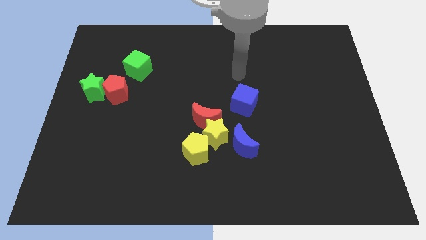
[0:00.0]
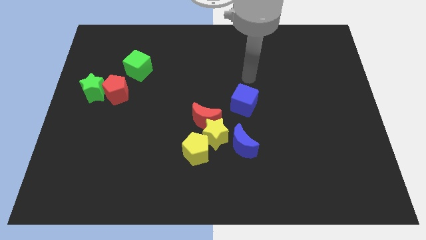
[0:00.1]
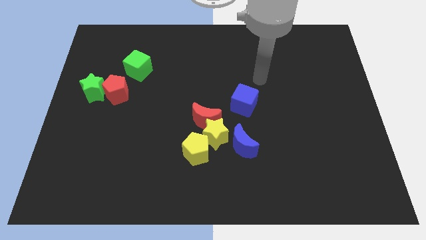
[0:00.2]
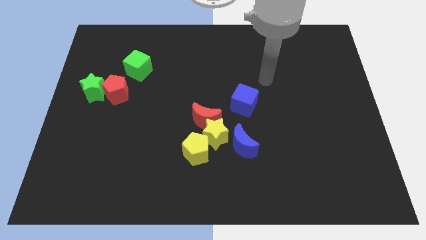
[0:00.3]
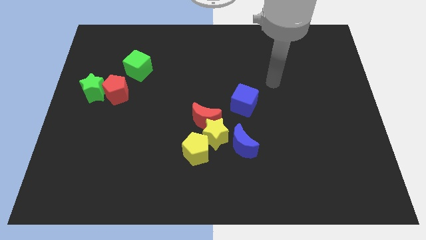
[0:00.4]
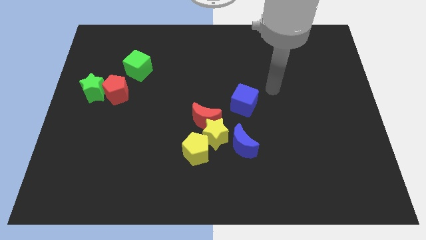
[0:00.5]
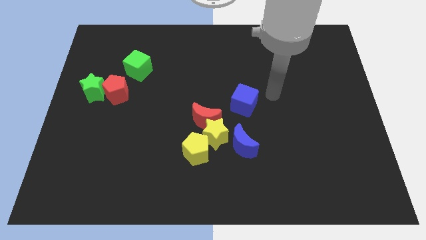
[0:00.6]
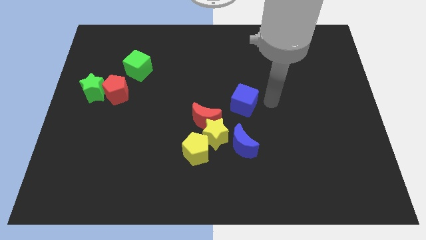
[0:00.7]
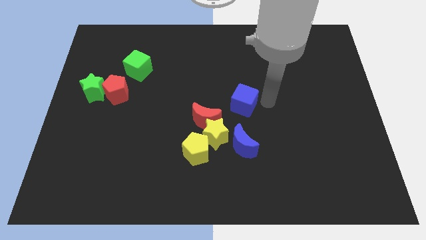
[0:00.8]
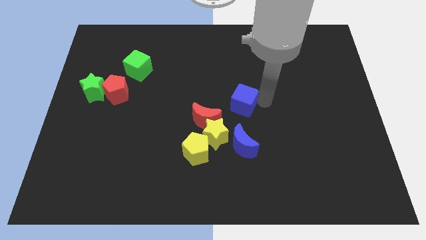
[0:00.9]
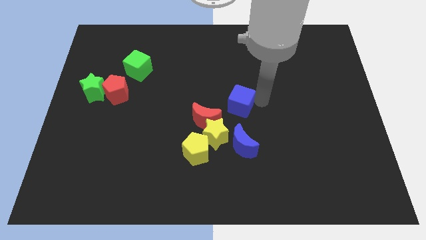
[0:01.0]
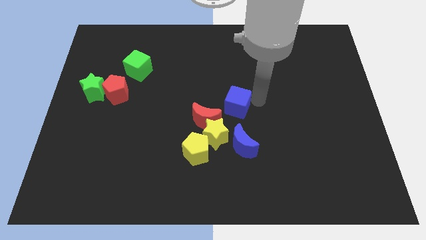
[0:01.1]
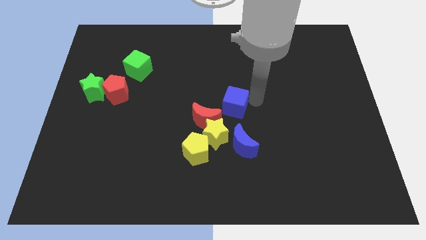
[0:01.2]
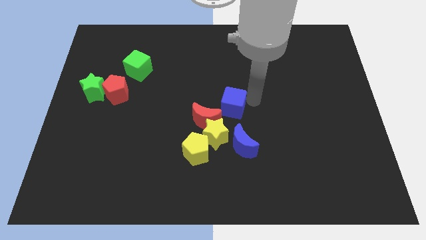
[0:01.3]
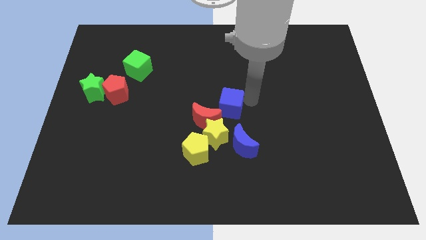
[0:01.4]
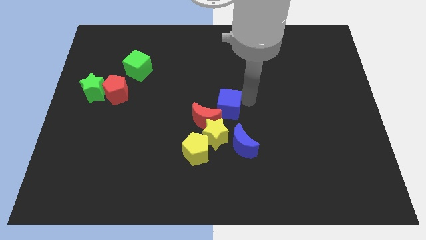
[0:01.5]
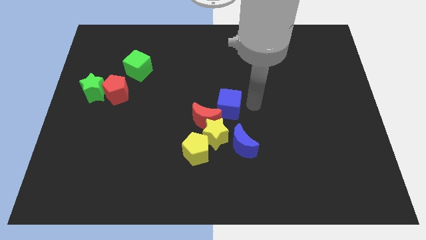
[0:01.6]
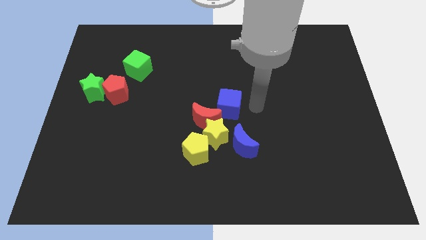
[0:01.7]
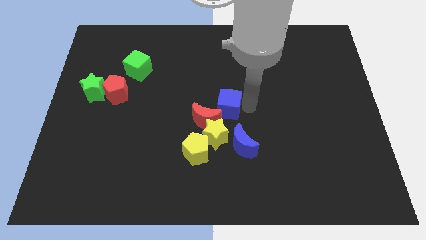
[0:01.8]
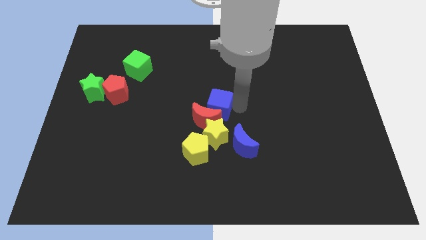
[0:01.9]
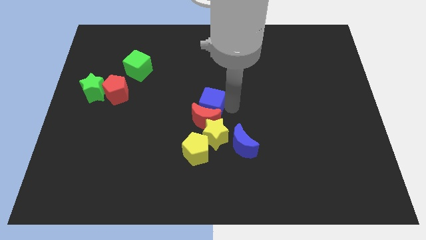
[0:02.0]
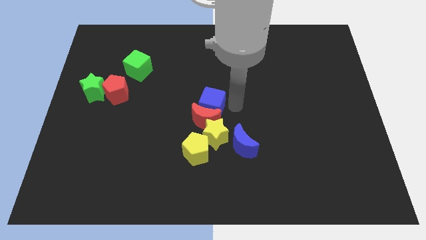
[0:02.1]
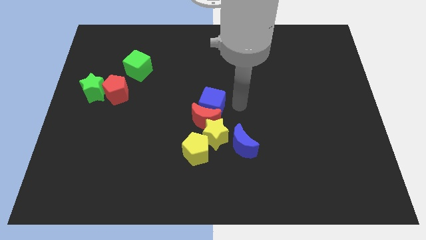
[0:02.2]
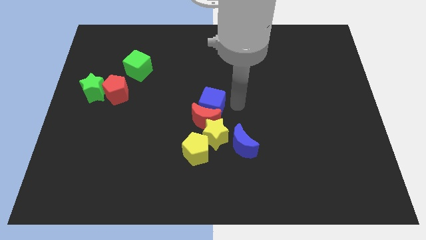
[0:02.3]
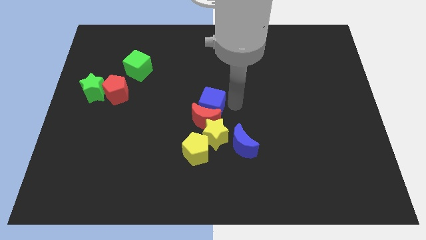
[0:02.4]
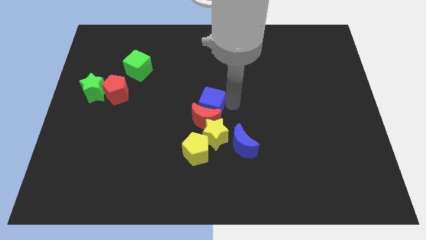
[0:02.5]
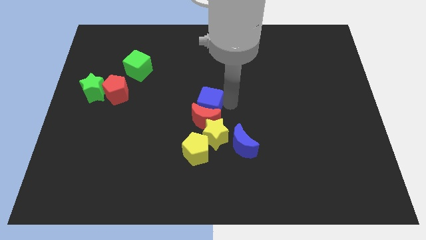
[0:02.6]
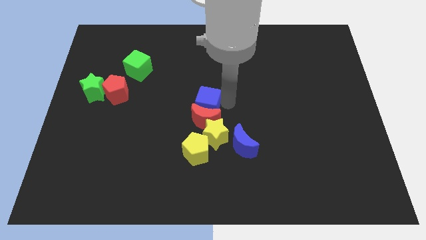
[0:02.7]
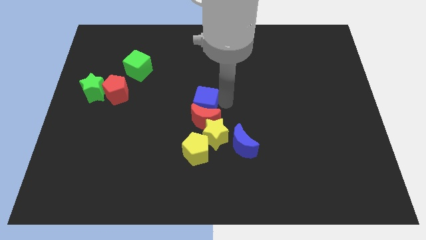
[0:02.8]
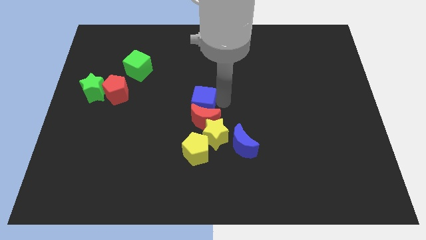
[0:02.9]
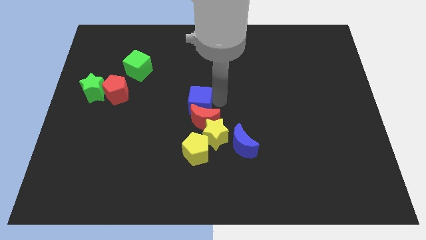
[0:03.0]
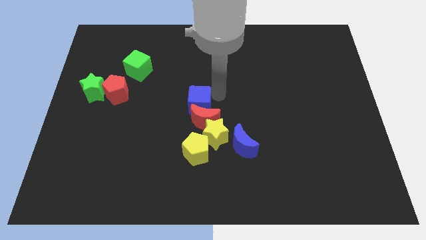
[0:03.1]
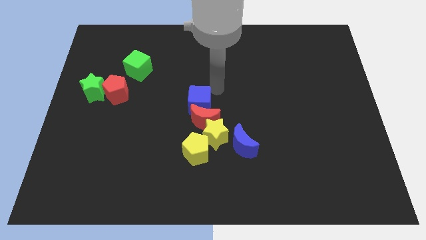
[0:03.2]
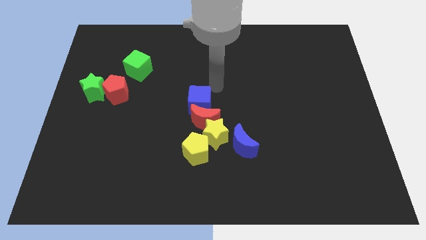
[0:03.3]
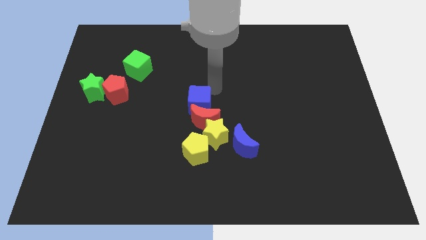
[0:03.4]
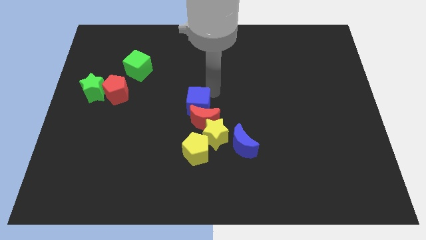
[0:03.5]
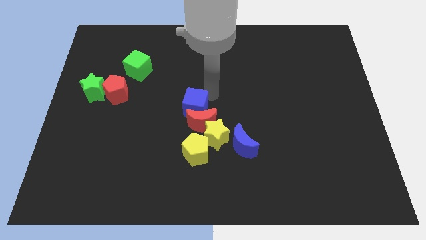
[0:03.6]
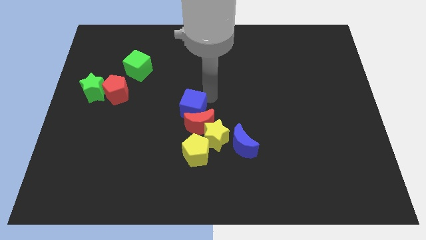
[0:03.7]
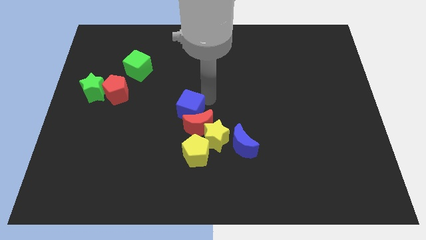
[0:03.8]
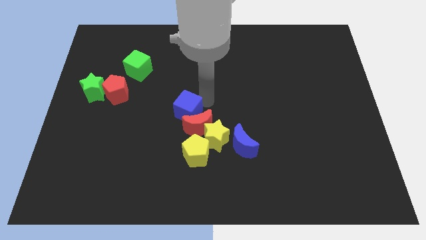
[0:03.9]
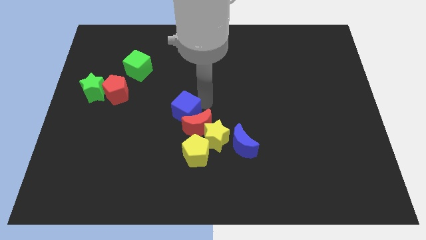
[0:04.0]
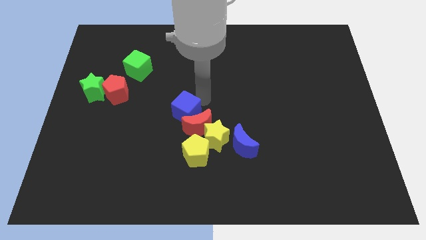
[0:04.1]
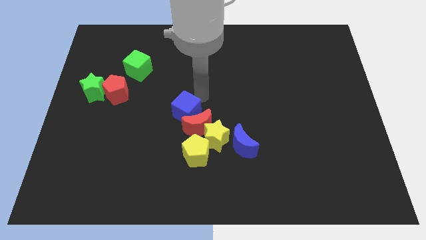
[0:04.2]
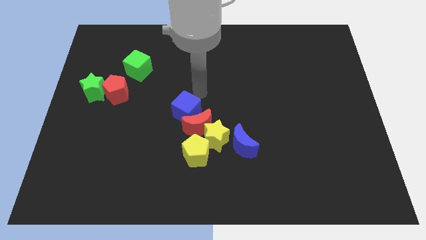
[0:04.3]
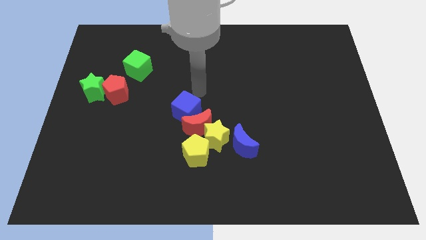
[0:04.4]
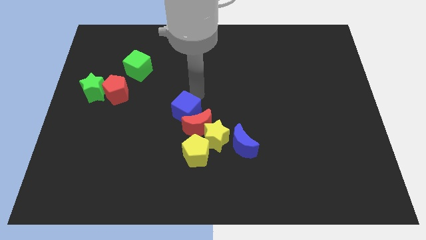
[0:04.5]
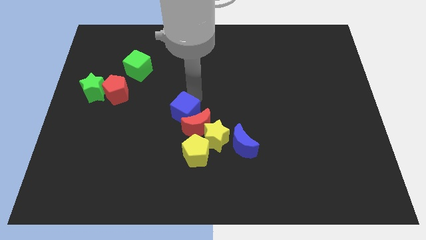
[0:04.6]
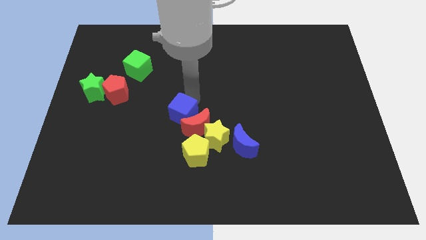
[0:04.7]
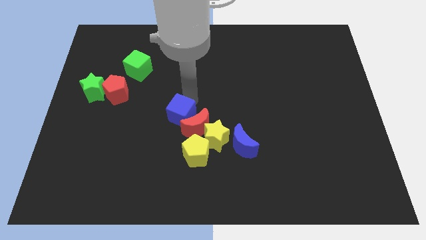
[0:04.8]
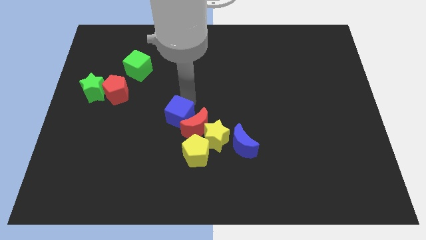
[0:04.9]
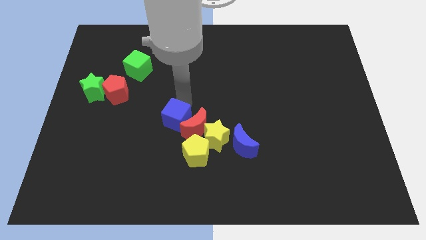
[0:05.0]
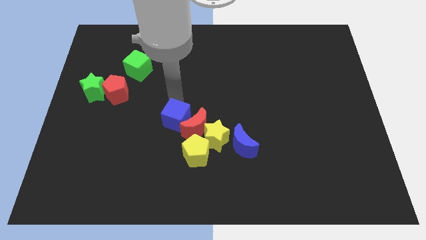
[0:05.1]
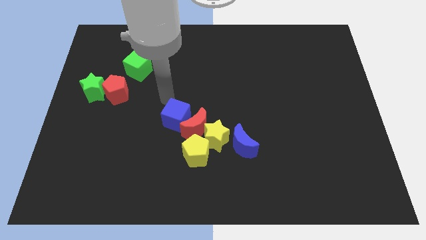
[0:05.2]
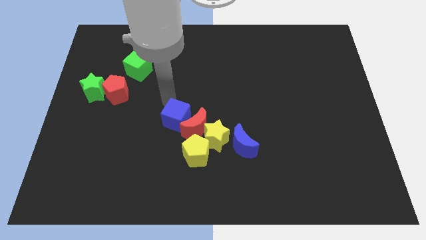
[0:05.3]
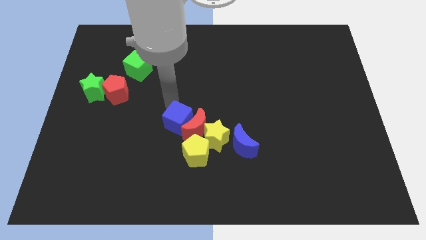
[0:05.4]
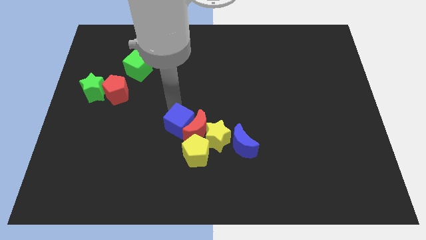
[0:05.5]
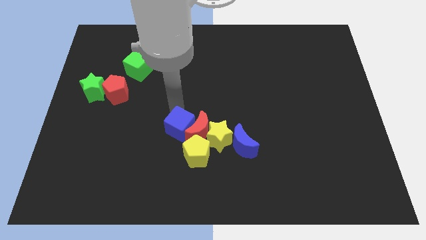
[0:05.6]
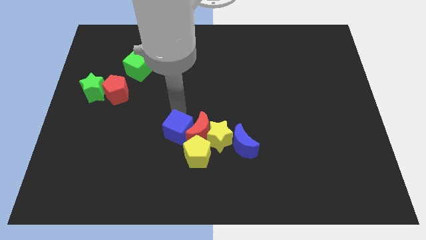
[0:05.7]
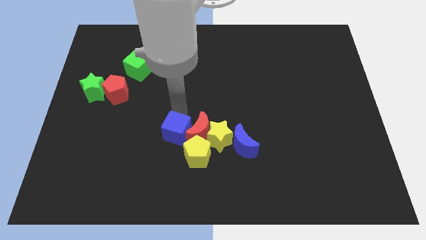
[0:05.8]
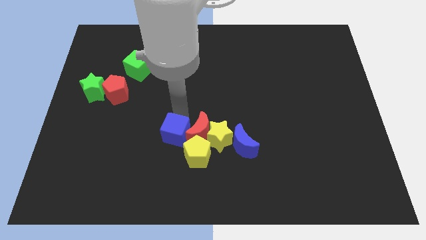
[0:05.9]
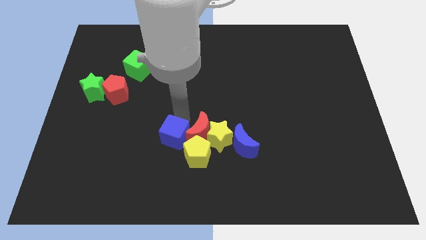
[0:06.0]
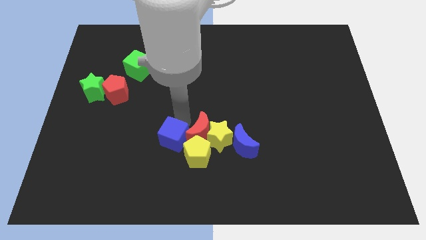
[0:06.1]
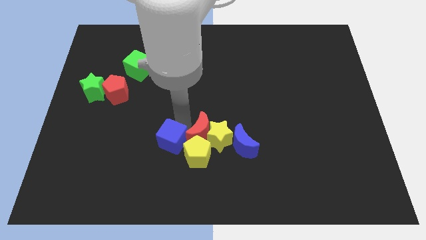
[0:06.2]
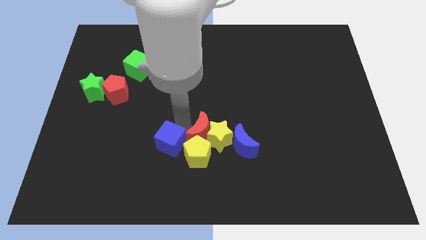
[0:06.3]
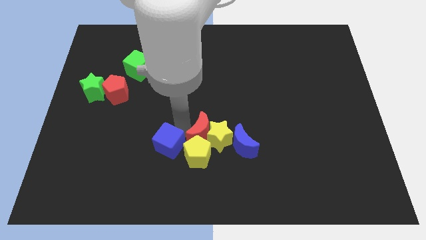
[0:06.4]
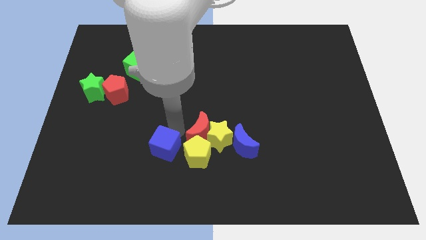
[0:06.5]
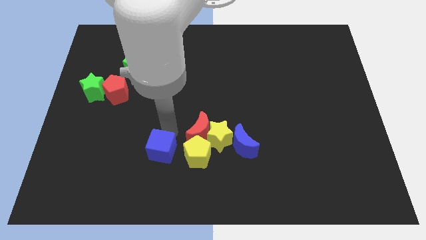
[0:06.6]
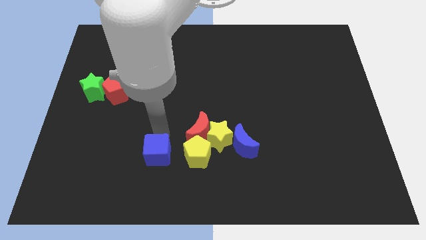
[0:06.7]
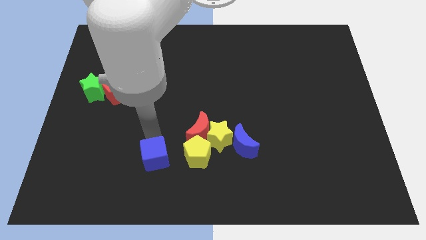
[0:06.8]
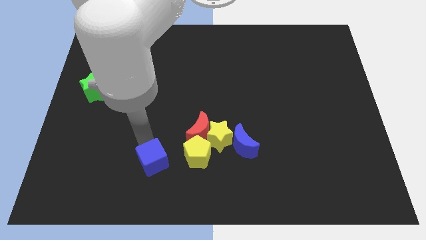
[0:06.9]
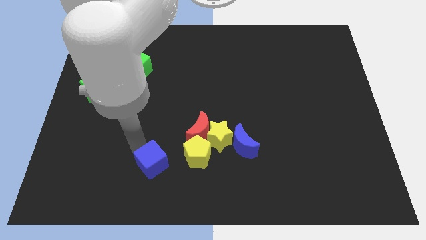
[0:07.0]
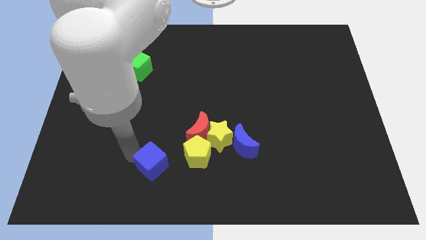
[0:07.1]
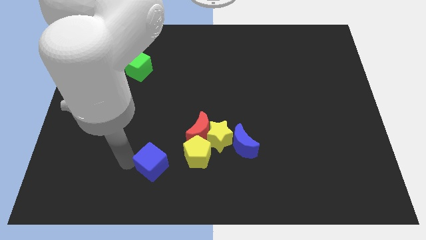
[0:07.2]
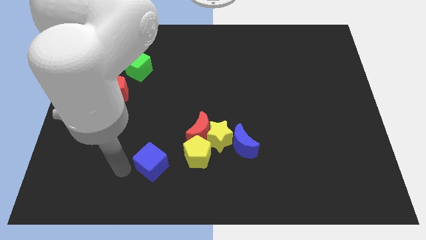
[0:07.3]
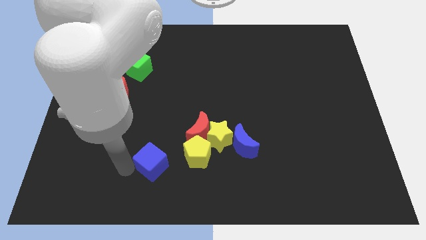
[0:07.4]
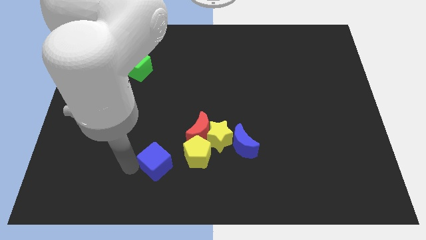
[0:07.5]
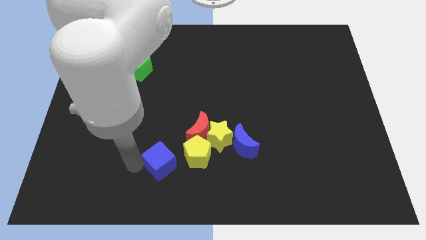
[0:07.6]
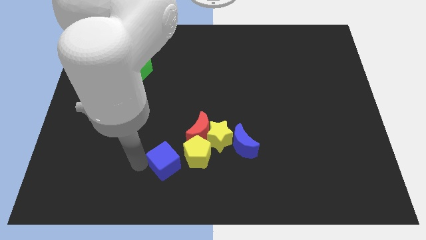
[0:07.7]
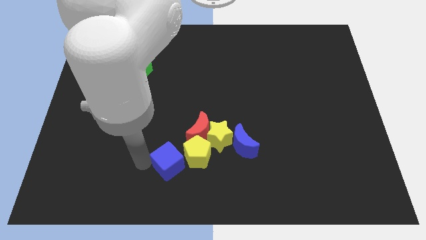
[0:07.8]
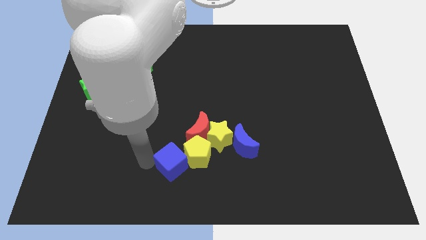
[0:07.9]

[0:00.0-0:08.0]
put the blue cube next to the yellow pentagon
